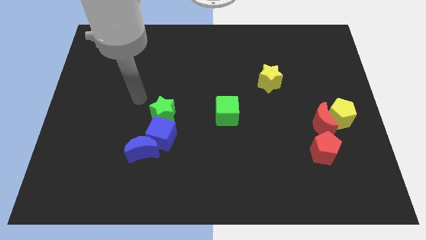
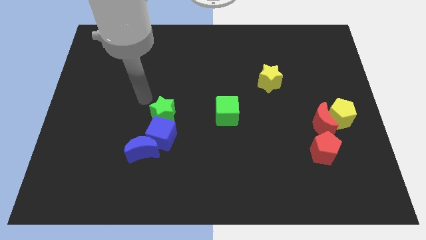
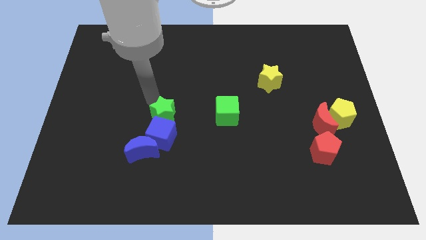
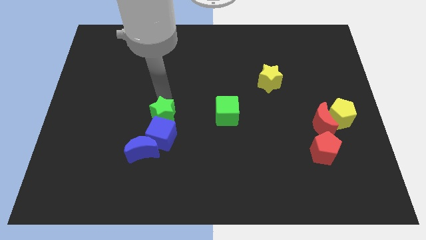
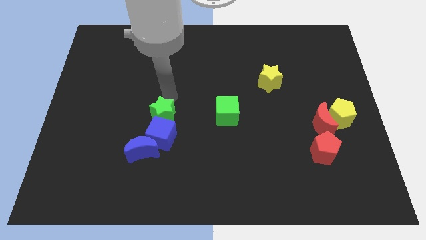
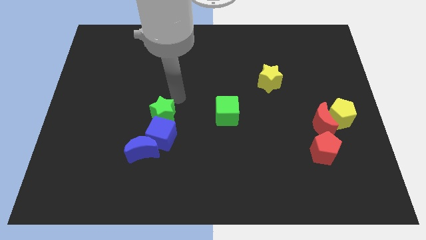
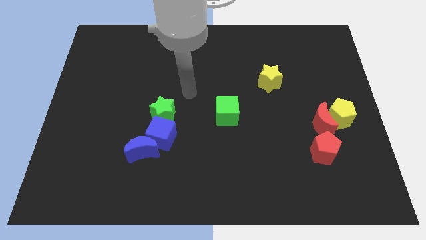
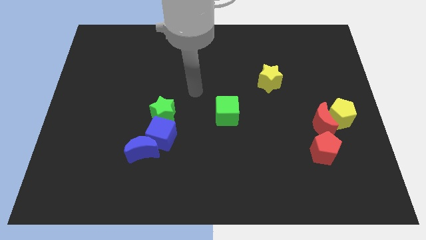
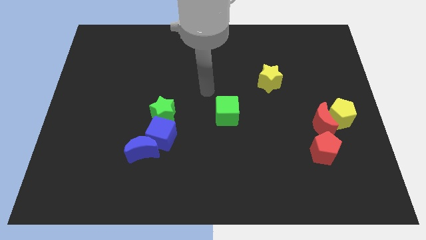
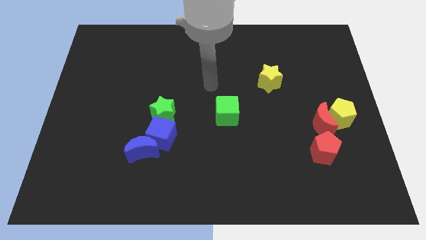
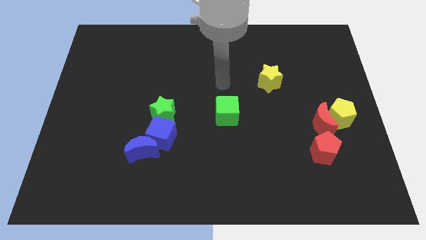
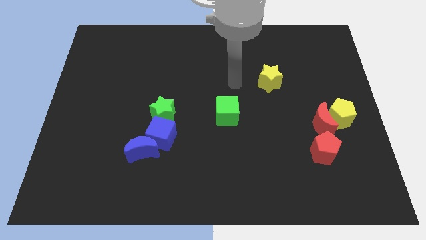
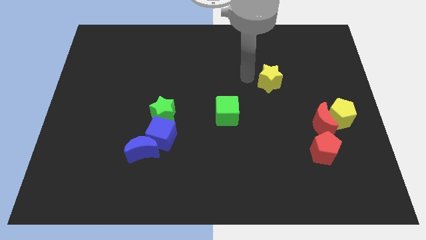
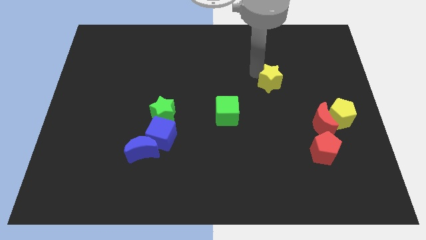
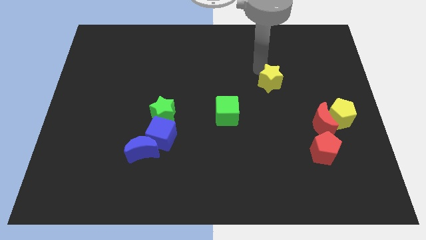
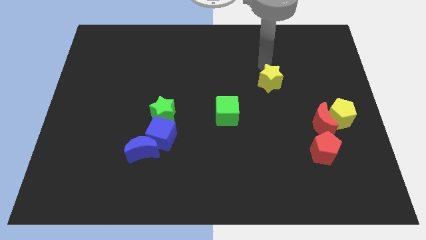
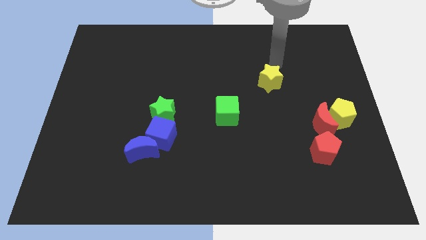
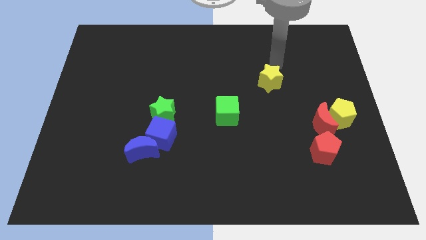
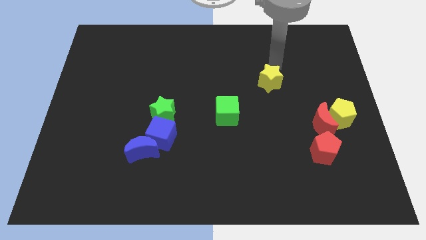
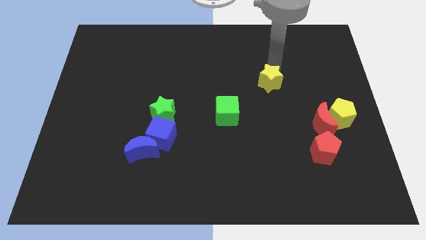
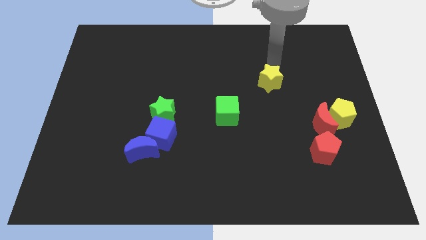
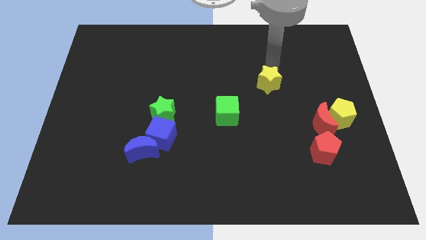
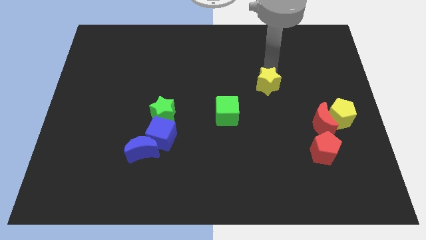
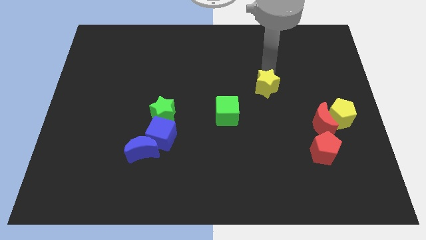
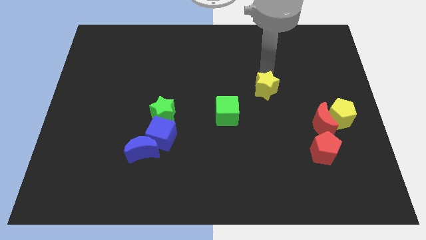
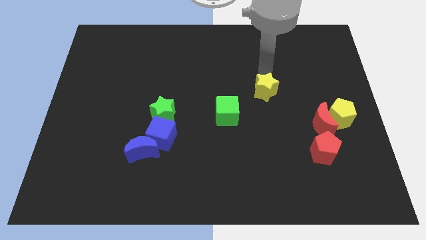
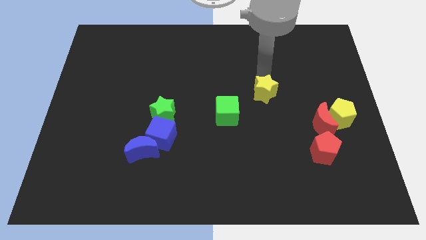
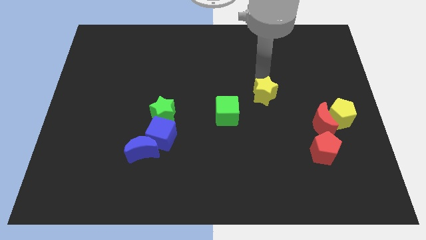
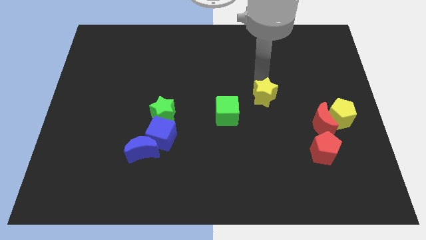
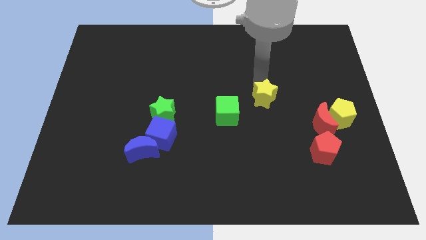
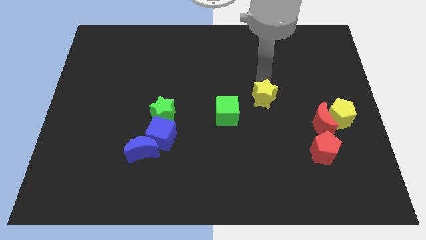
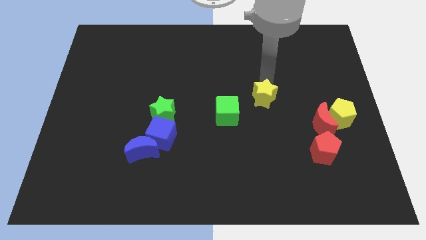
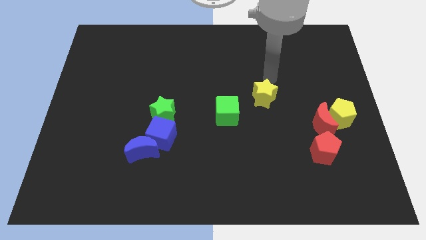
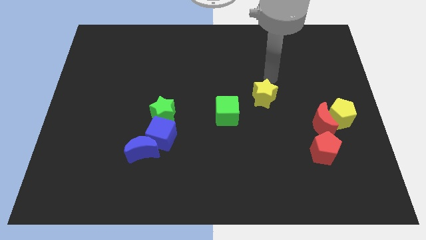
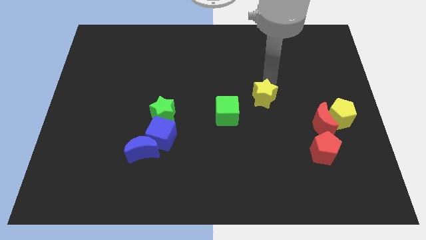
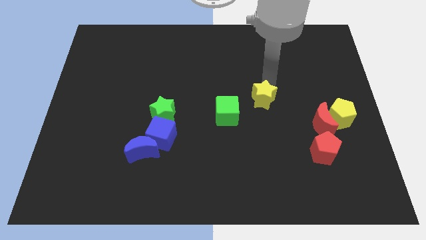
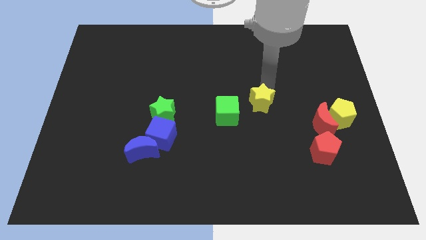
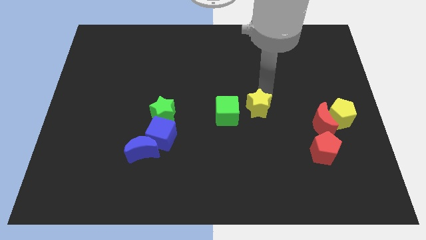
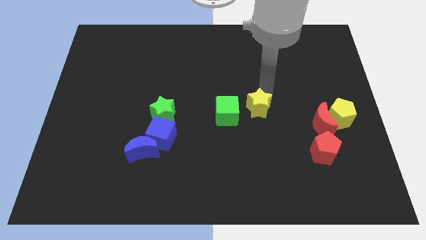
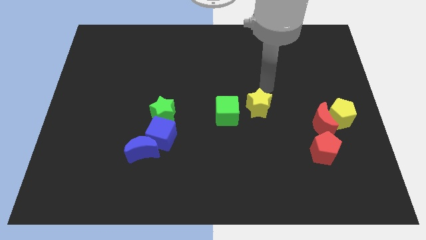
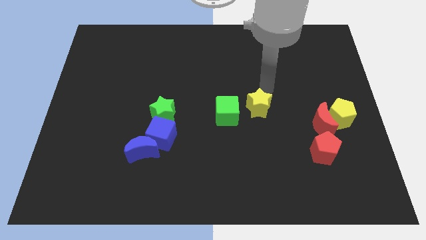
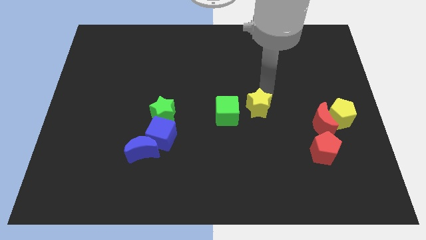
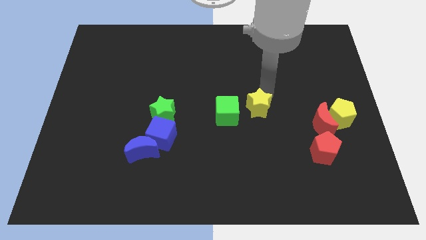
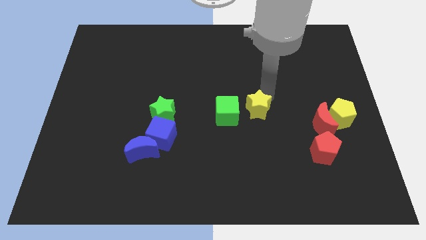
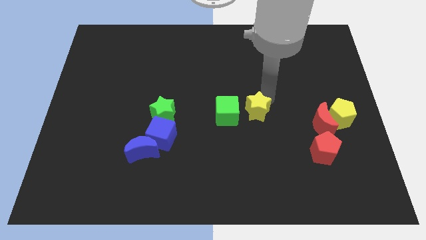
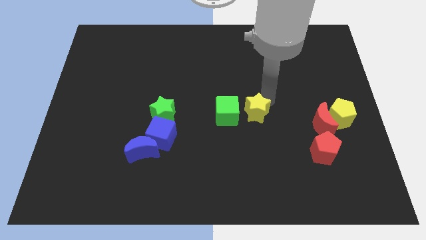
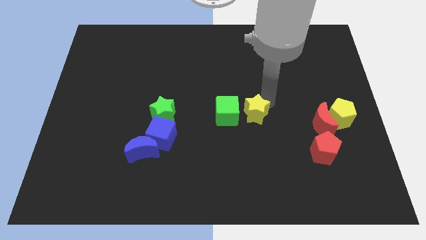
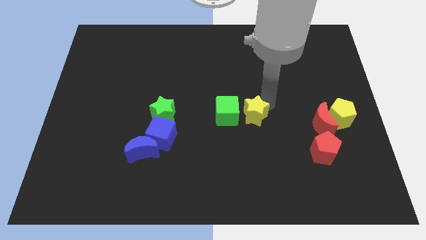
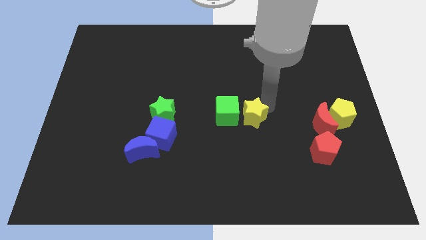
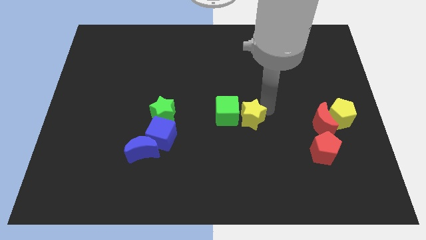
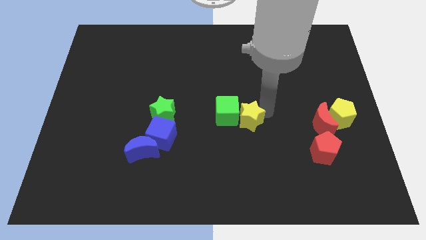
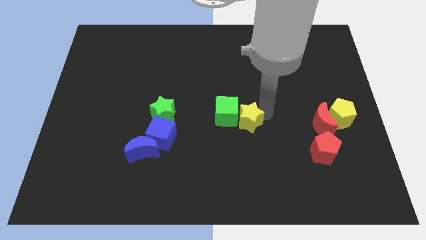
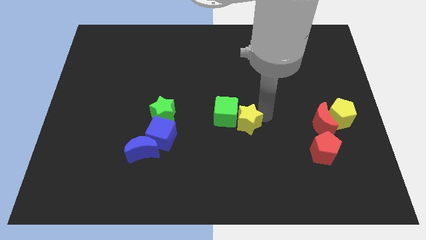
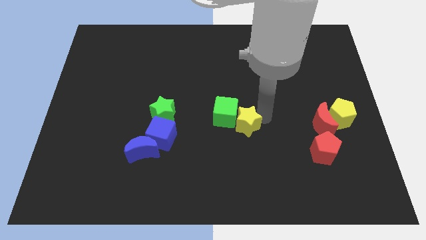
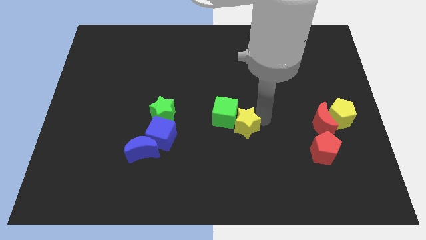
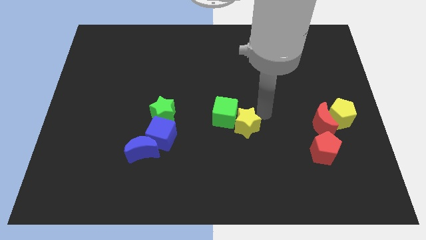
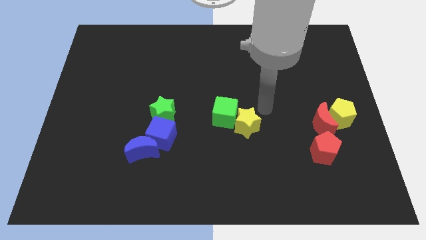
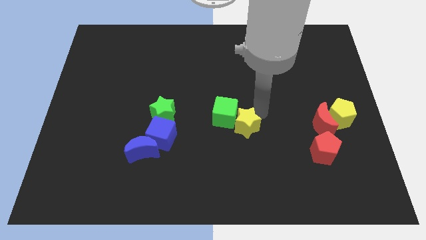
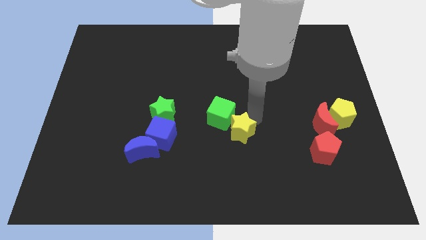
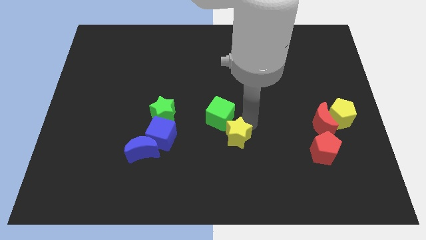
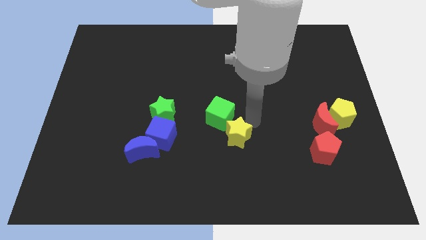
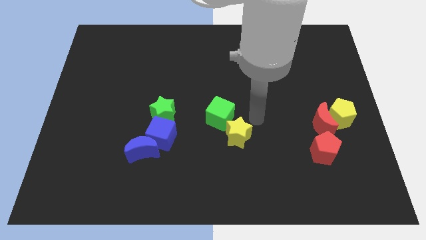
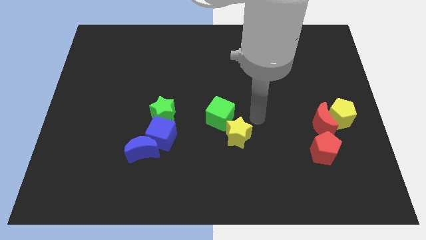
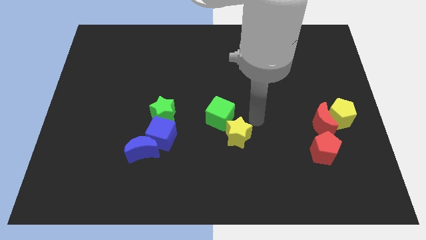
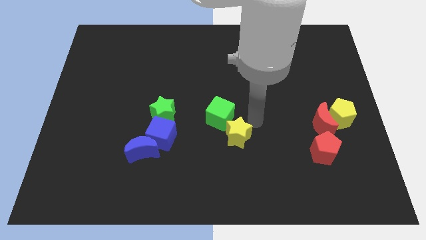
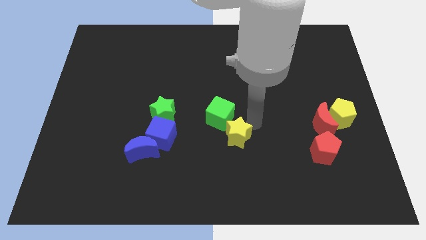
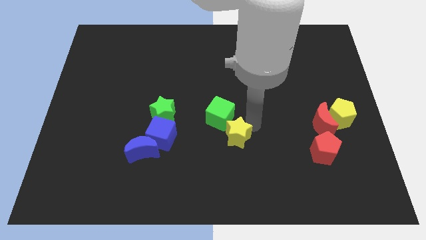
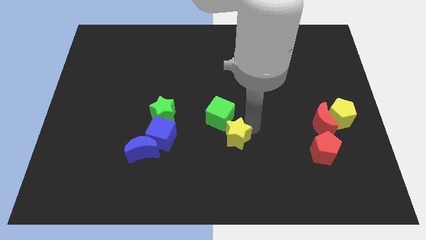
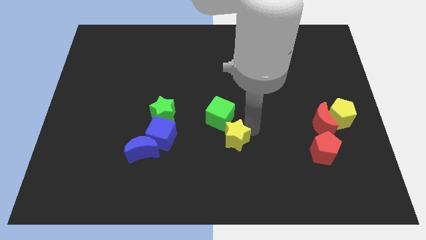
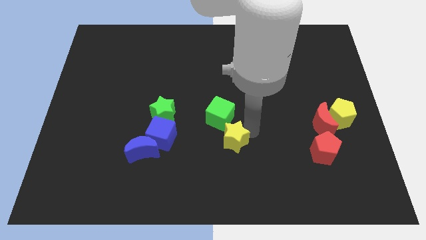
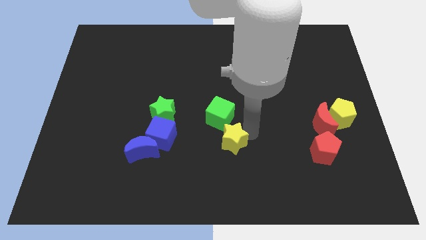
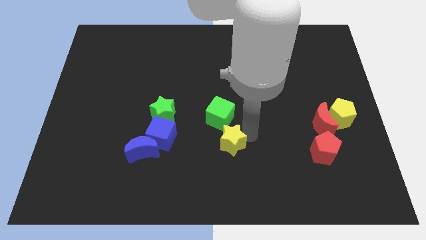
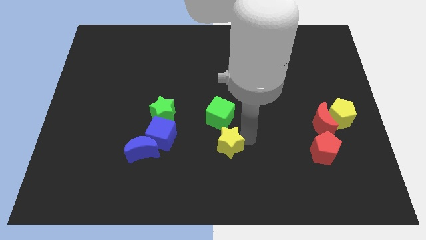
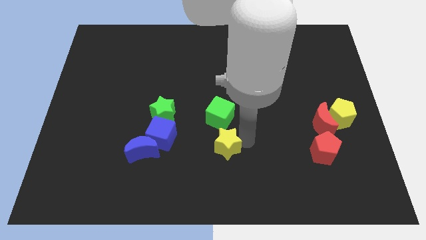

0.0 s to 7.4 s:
push the yellow star downwards and left

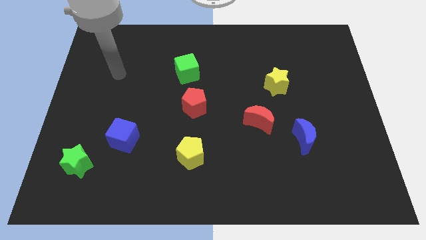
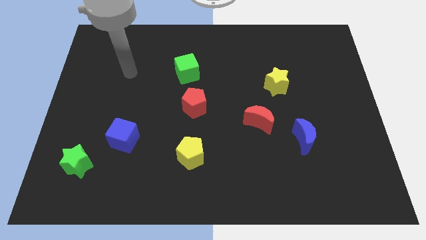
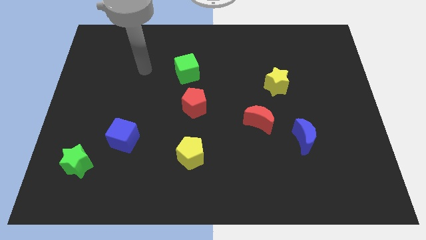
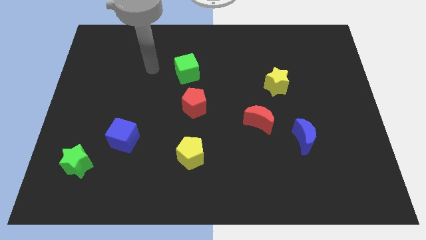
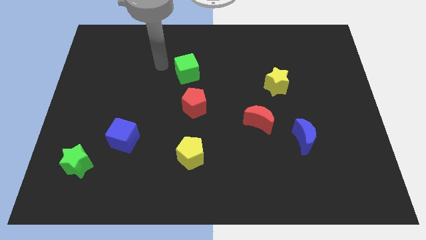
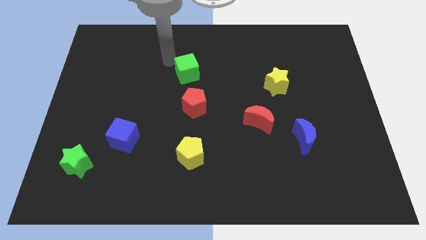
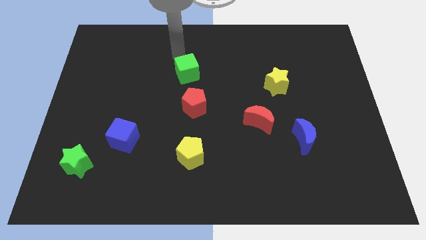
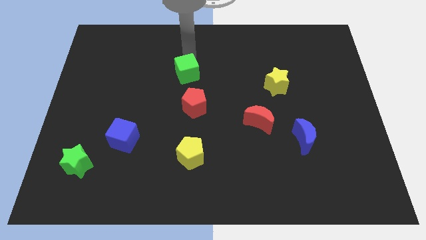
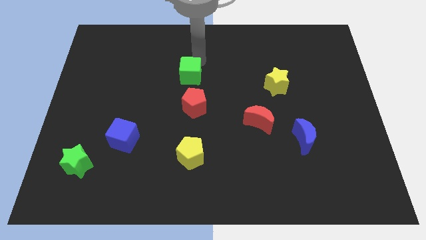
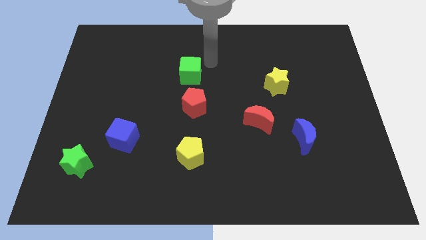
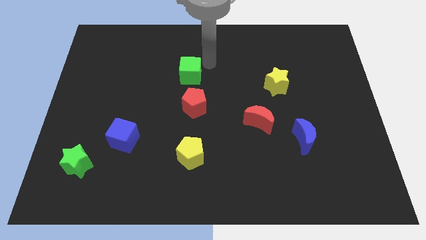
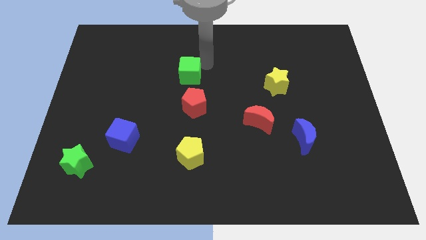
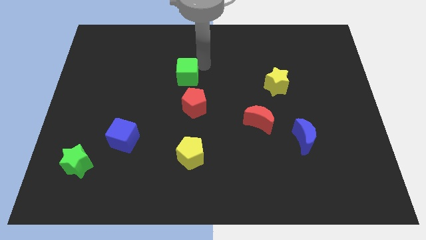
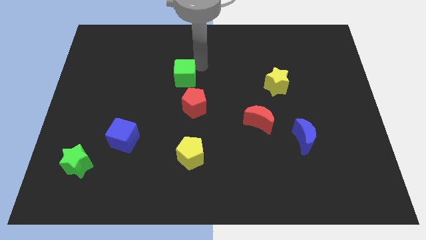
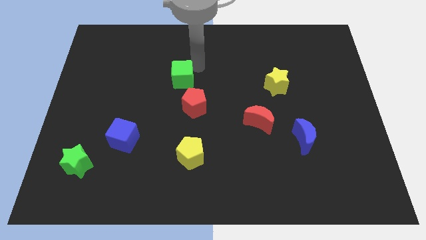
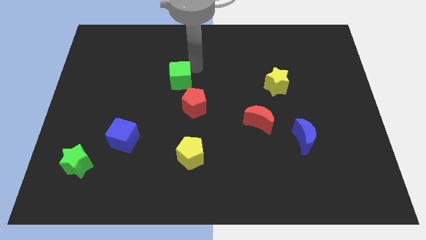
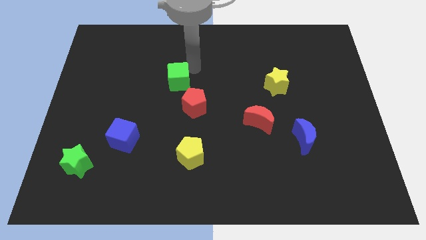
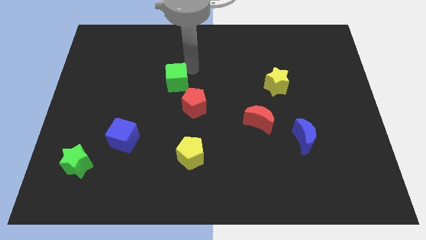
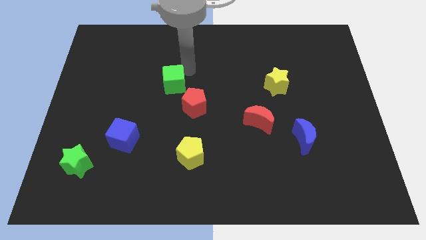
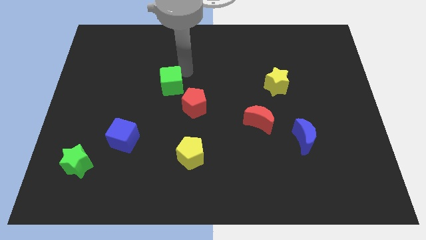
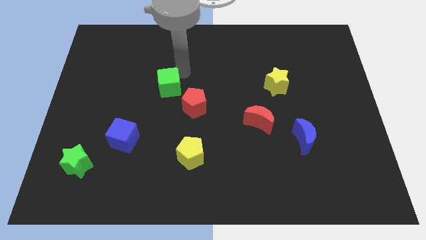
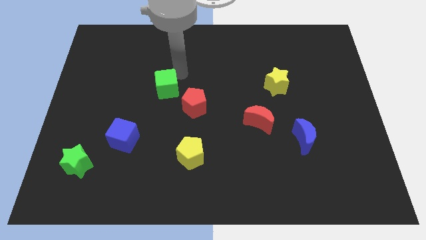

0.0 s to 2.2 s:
slightly move the green cube diagonally downwards and left
